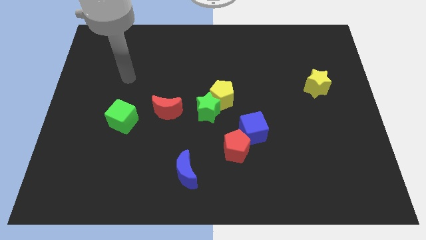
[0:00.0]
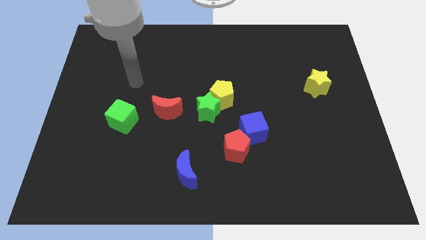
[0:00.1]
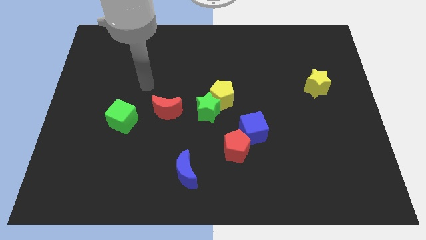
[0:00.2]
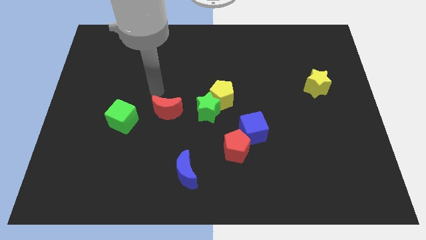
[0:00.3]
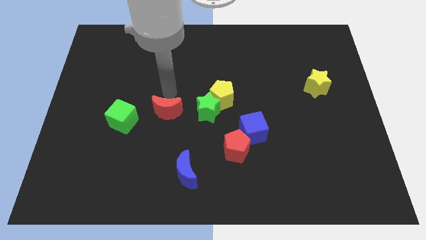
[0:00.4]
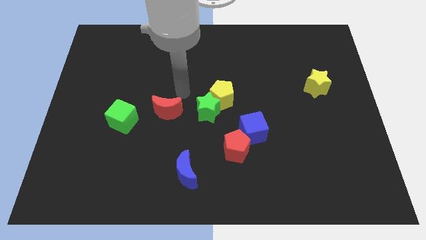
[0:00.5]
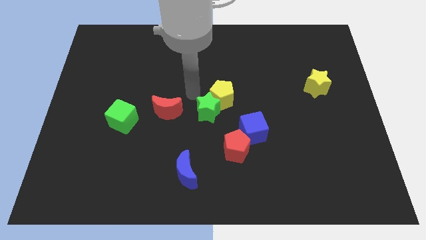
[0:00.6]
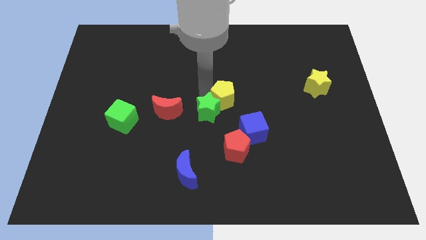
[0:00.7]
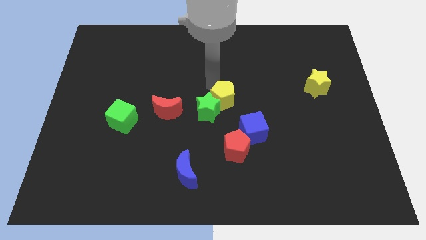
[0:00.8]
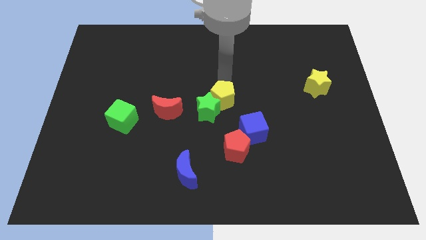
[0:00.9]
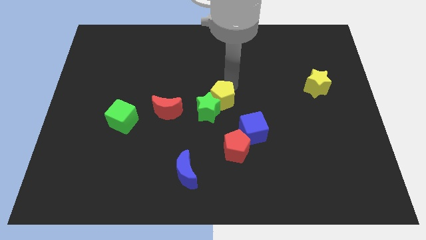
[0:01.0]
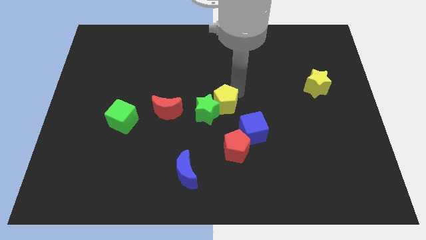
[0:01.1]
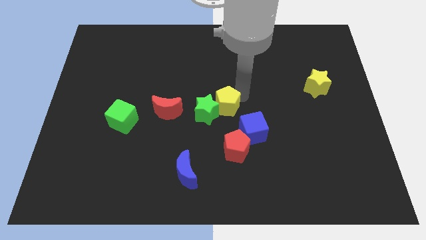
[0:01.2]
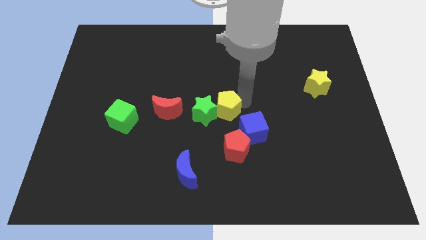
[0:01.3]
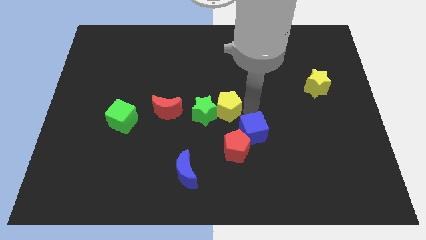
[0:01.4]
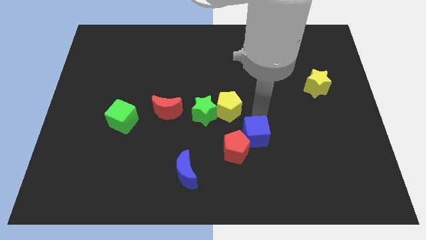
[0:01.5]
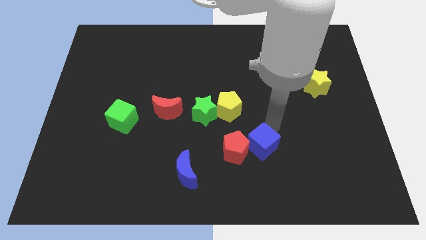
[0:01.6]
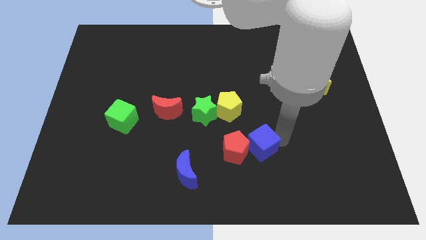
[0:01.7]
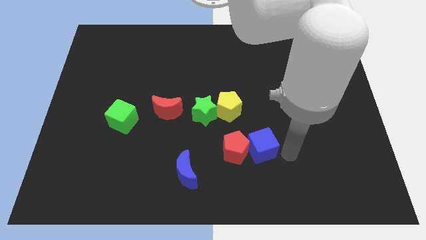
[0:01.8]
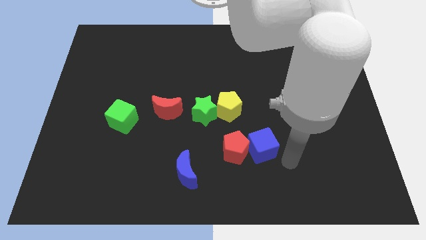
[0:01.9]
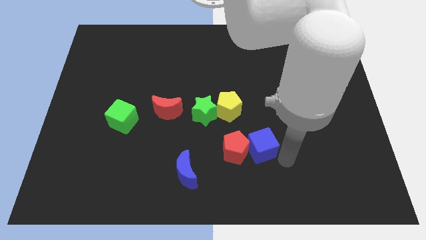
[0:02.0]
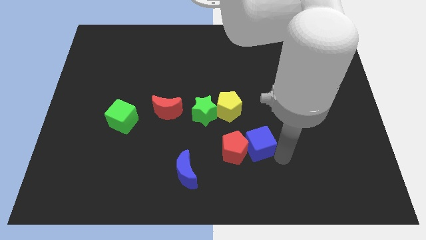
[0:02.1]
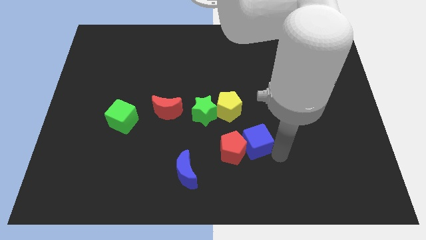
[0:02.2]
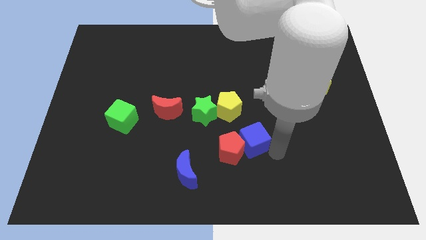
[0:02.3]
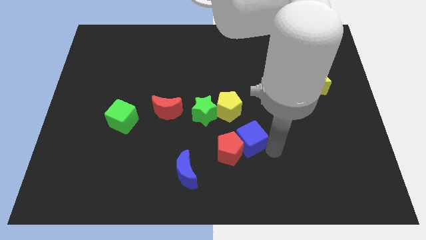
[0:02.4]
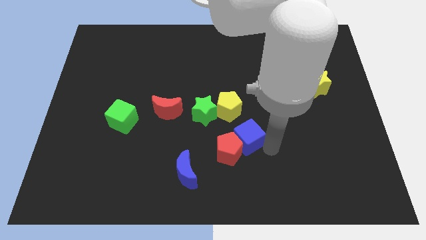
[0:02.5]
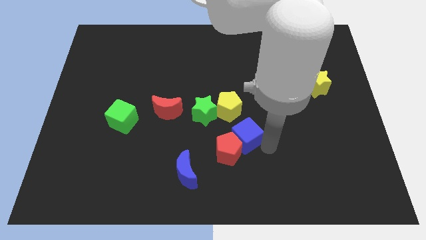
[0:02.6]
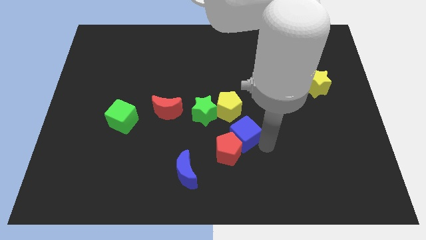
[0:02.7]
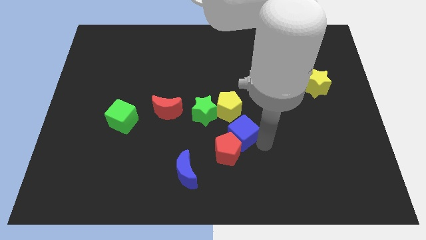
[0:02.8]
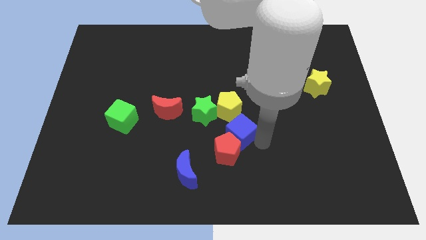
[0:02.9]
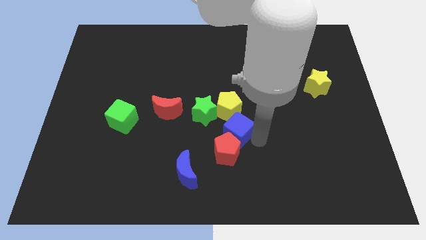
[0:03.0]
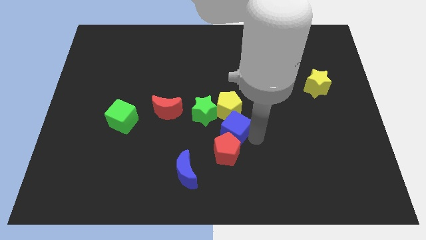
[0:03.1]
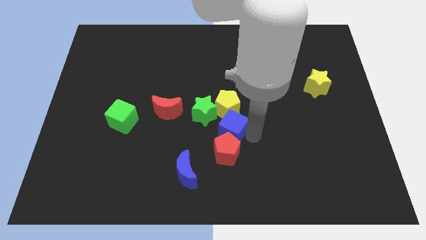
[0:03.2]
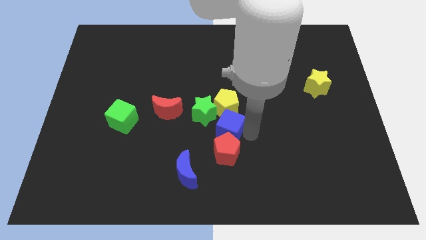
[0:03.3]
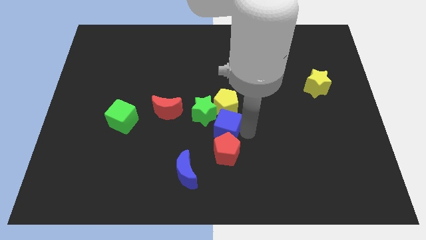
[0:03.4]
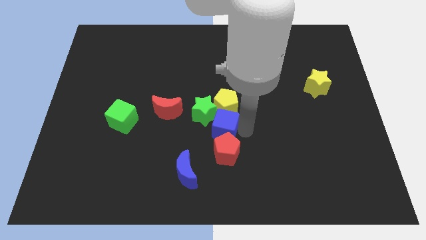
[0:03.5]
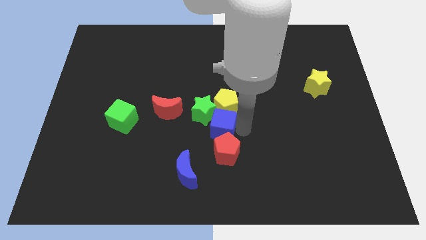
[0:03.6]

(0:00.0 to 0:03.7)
push the blue cube left slightly

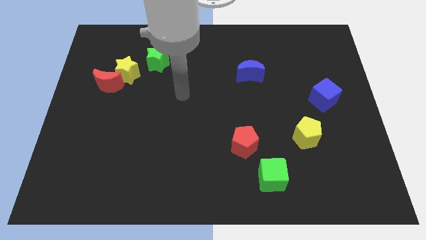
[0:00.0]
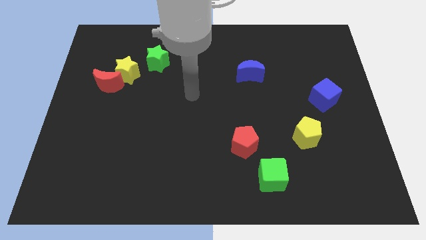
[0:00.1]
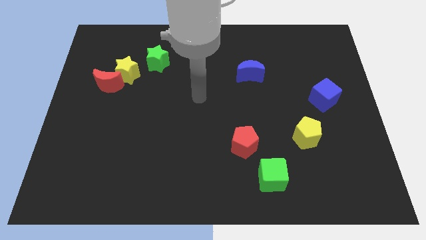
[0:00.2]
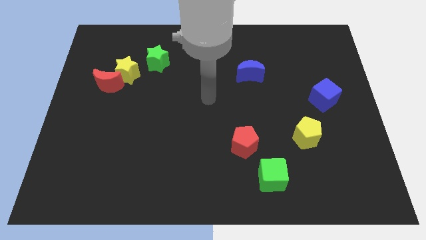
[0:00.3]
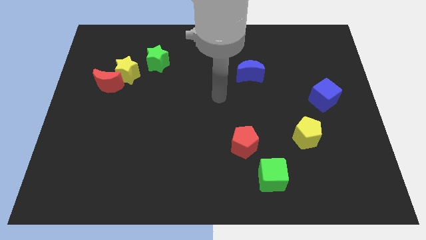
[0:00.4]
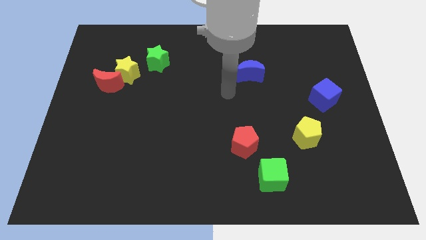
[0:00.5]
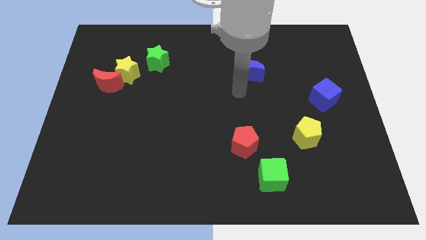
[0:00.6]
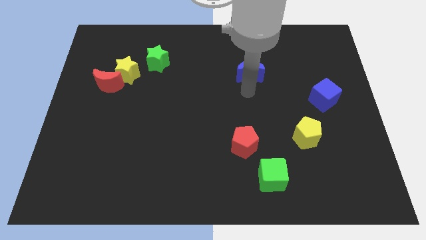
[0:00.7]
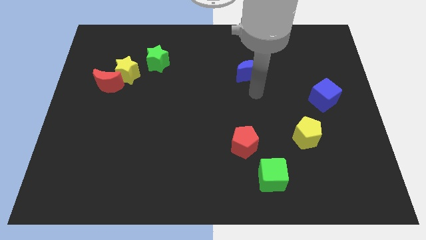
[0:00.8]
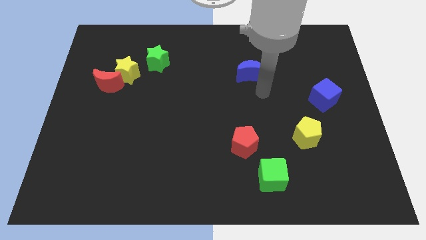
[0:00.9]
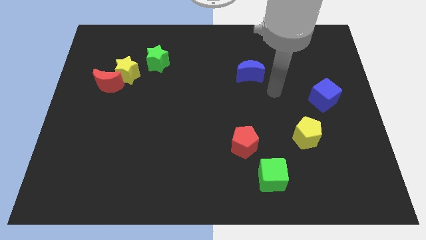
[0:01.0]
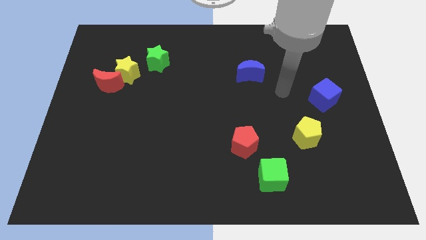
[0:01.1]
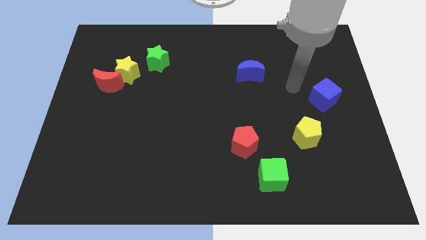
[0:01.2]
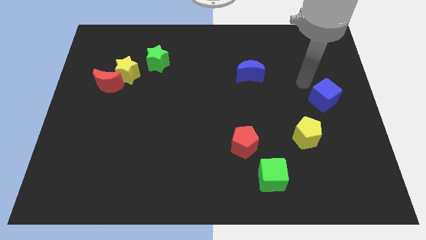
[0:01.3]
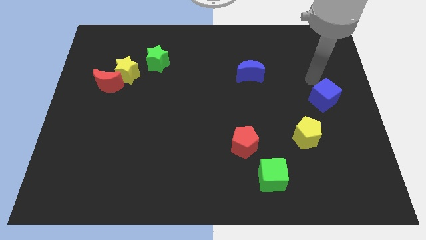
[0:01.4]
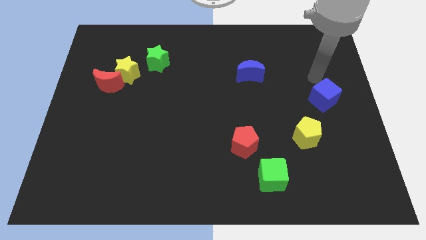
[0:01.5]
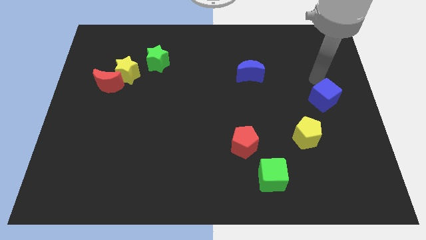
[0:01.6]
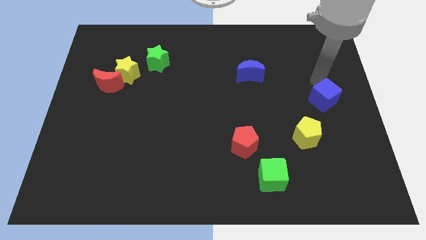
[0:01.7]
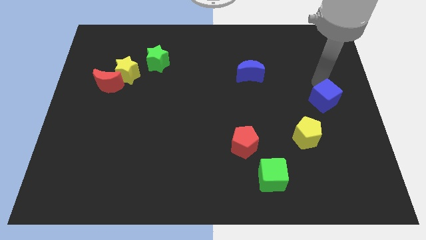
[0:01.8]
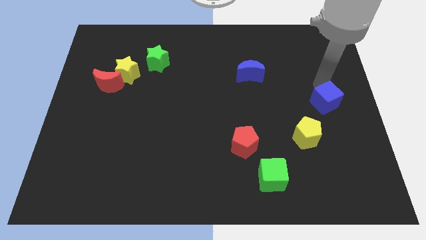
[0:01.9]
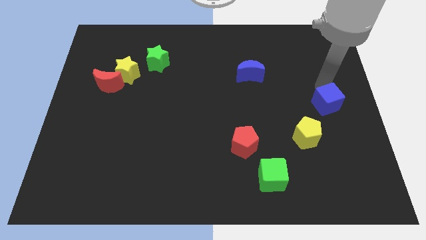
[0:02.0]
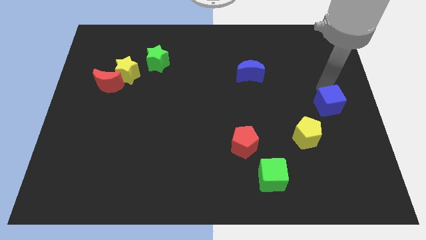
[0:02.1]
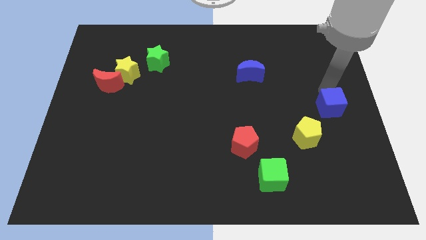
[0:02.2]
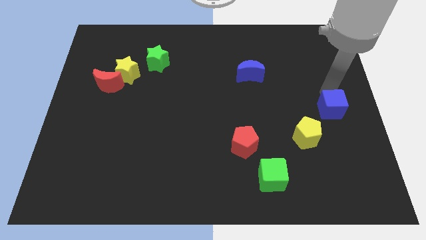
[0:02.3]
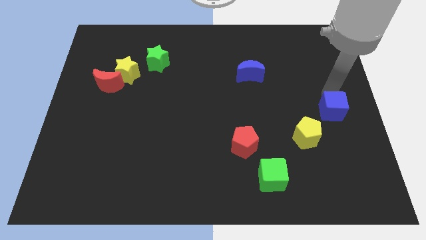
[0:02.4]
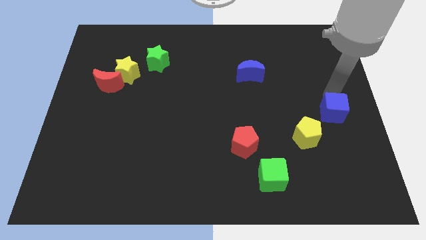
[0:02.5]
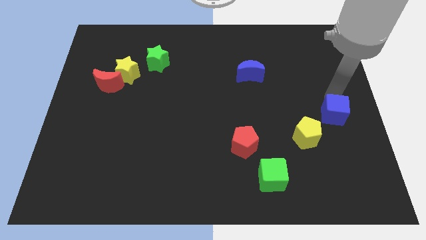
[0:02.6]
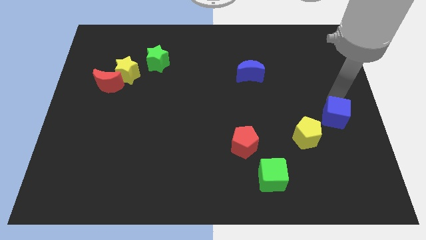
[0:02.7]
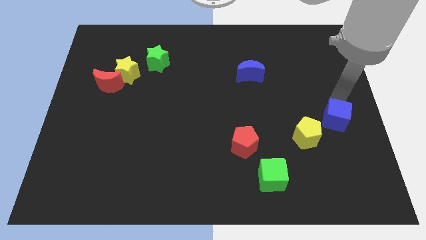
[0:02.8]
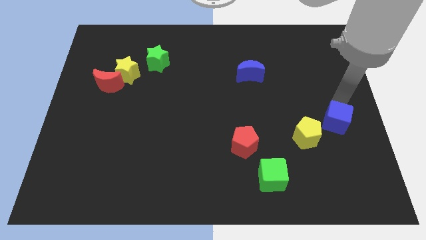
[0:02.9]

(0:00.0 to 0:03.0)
slightly slide the blue cube down

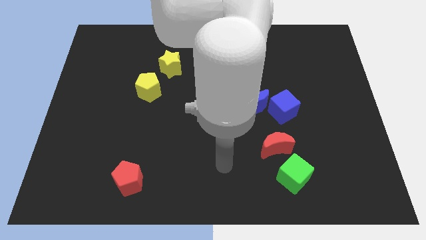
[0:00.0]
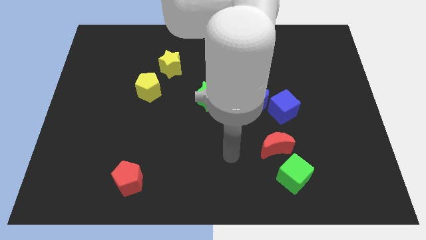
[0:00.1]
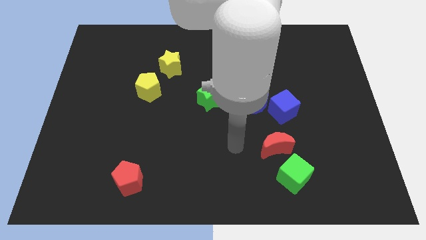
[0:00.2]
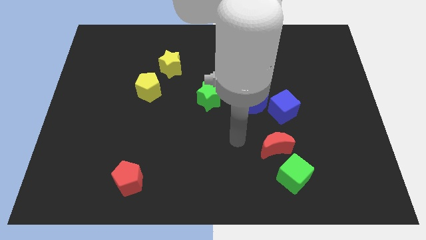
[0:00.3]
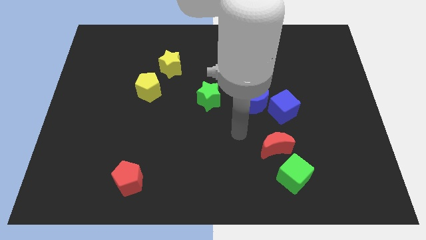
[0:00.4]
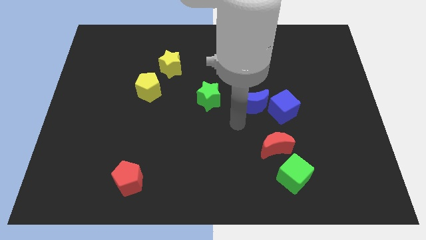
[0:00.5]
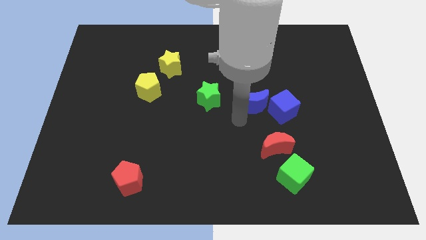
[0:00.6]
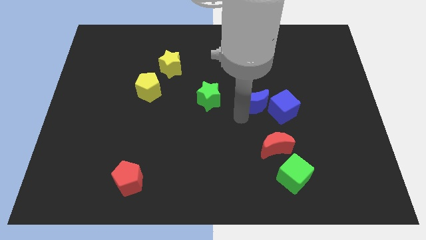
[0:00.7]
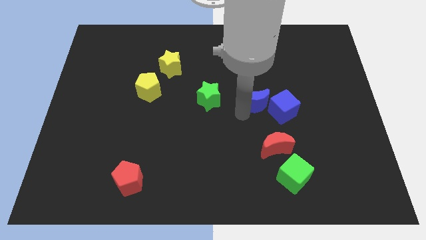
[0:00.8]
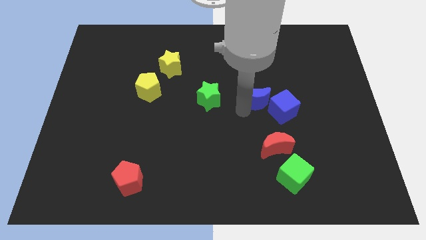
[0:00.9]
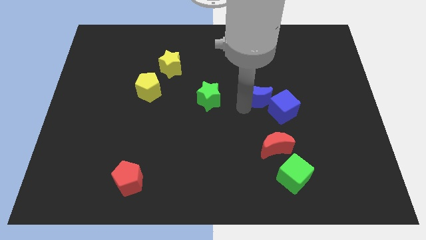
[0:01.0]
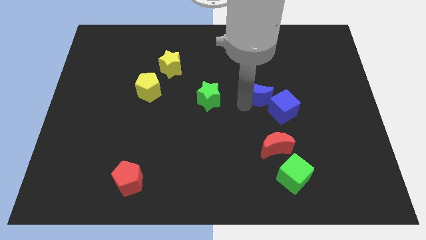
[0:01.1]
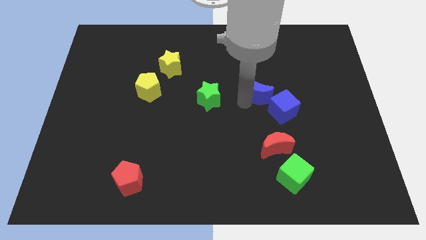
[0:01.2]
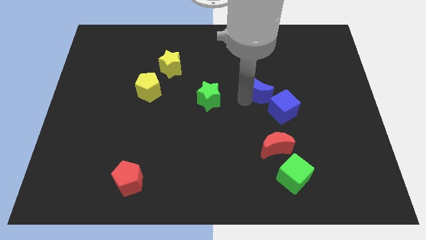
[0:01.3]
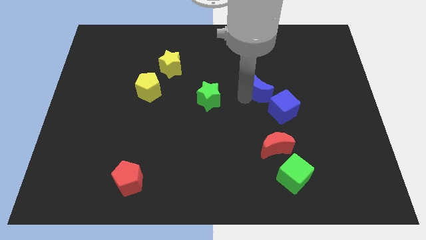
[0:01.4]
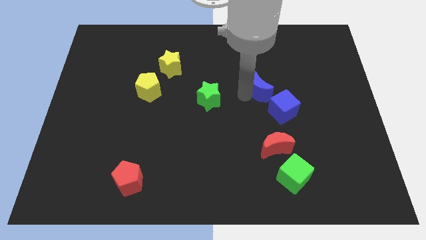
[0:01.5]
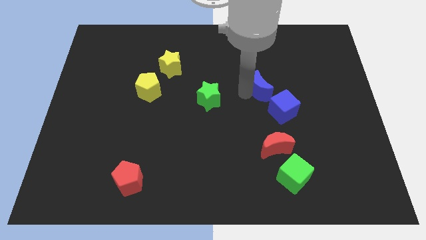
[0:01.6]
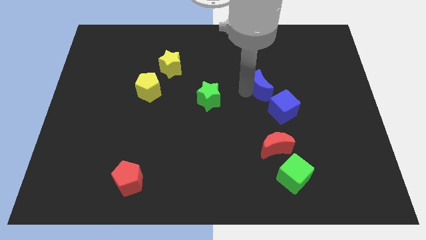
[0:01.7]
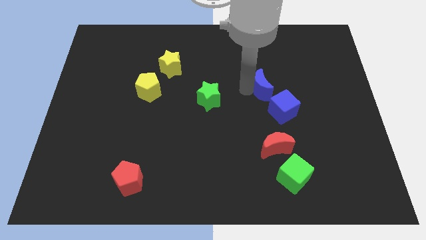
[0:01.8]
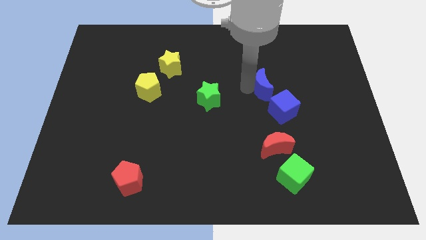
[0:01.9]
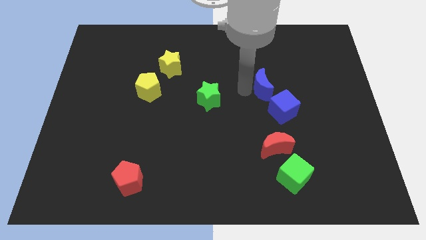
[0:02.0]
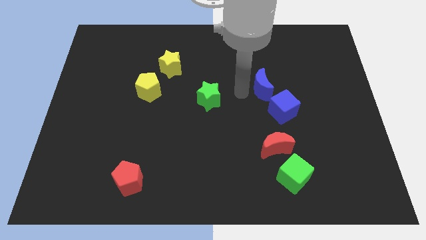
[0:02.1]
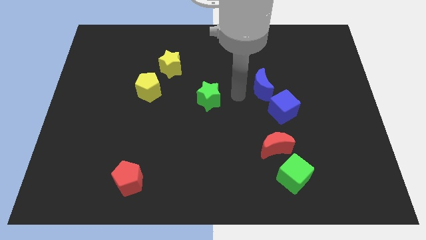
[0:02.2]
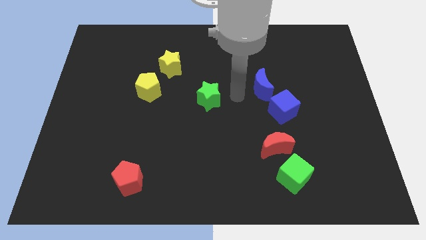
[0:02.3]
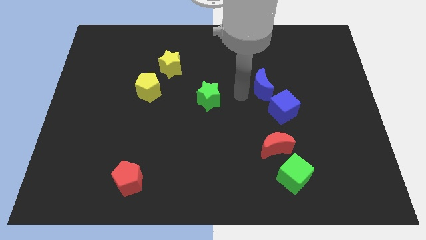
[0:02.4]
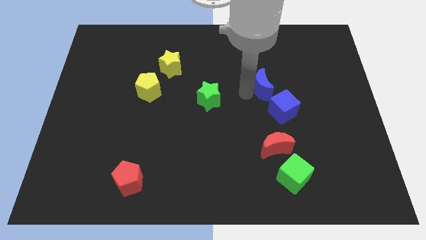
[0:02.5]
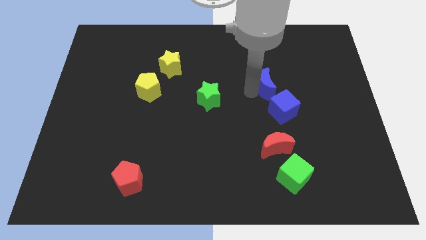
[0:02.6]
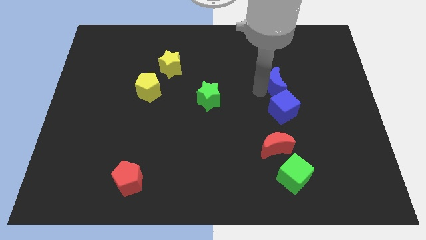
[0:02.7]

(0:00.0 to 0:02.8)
slide the blue moon upwards and to the right a little bit
